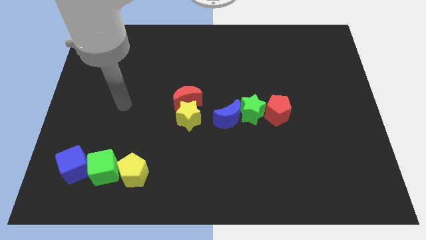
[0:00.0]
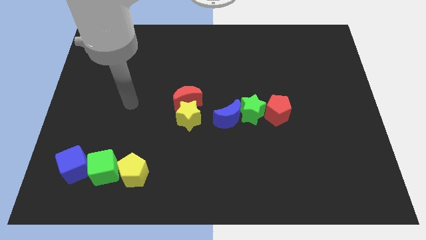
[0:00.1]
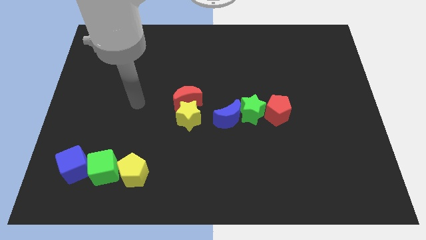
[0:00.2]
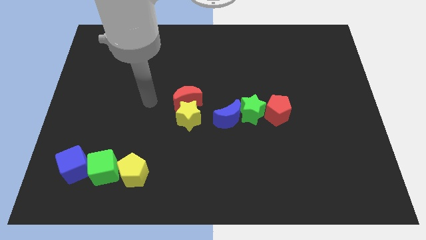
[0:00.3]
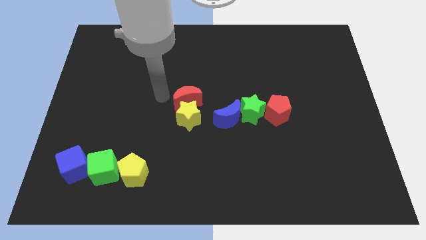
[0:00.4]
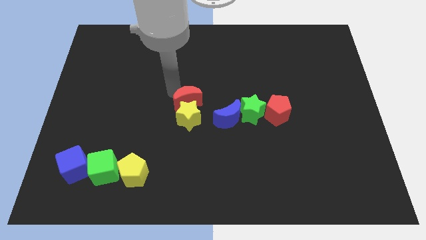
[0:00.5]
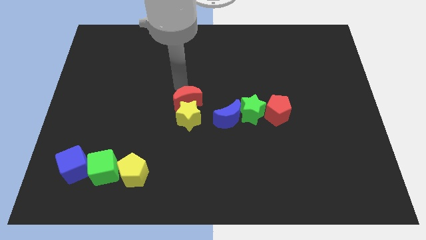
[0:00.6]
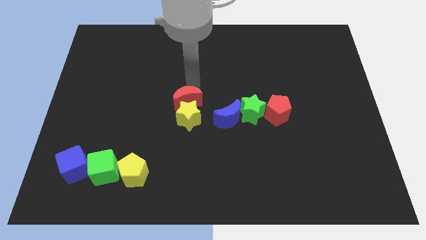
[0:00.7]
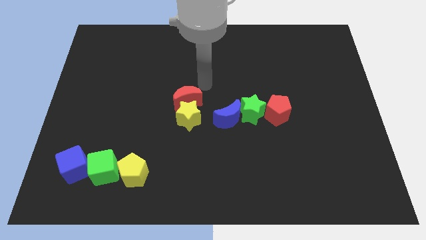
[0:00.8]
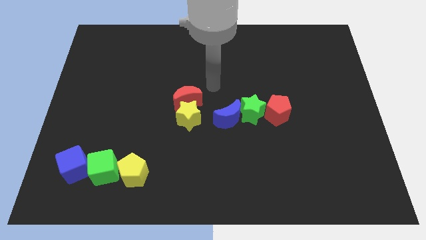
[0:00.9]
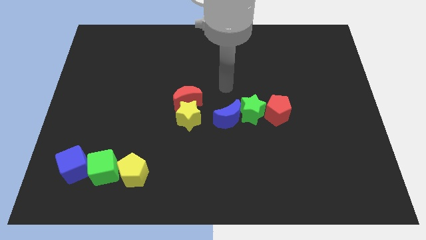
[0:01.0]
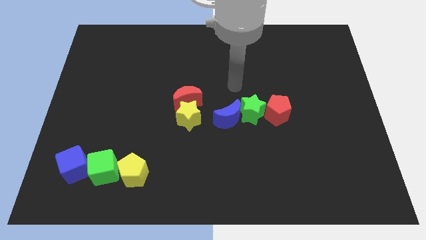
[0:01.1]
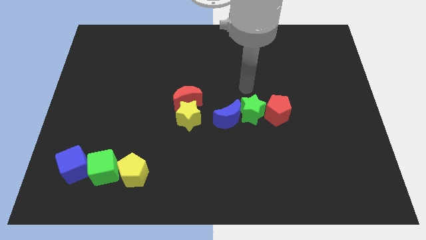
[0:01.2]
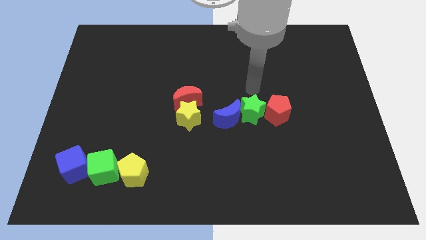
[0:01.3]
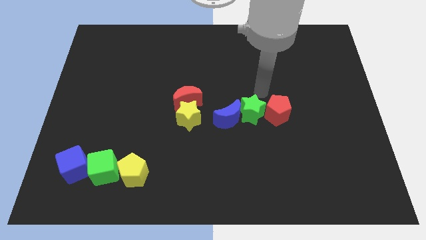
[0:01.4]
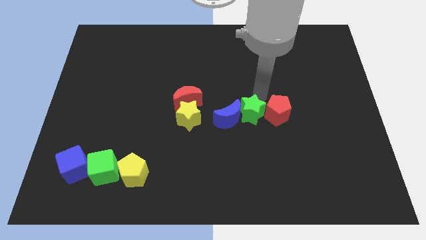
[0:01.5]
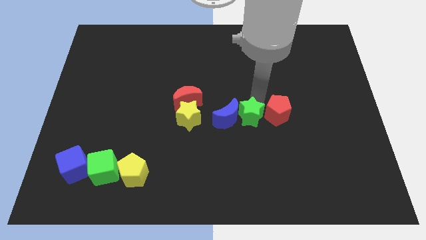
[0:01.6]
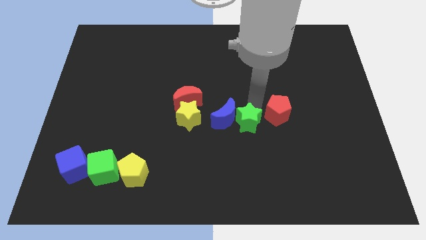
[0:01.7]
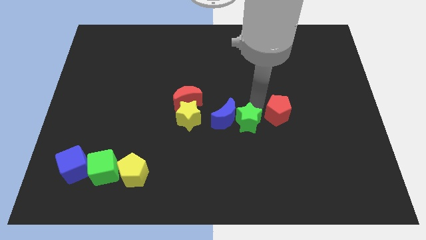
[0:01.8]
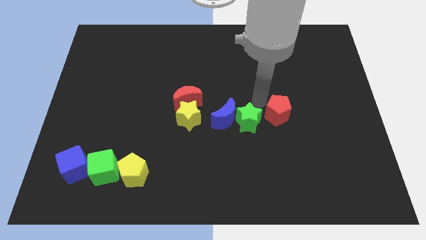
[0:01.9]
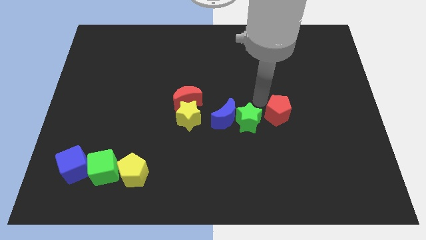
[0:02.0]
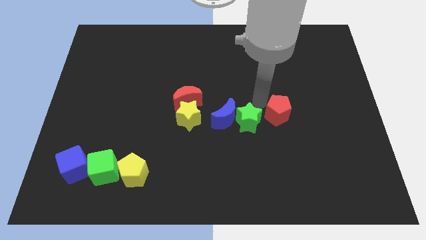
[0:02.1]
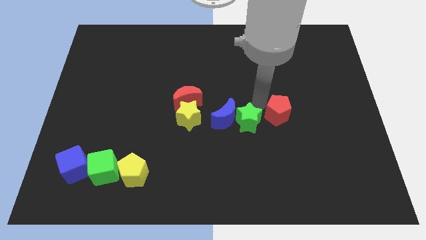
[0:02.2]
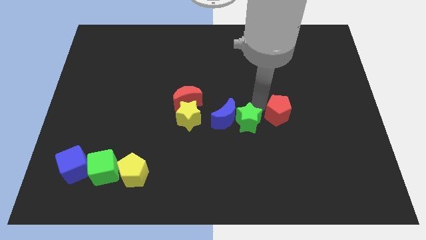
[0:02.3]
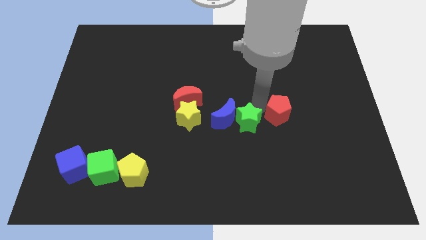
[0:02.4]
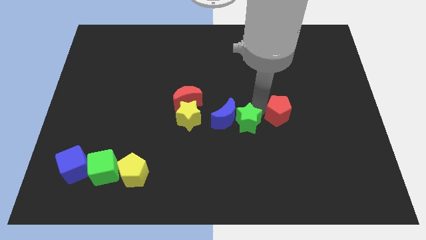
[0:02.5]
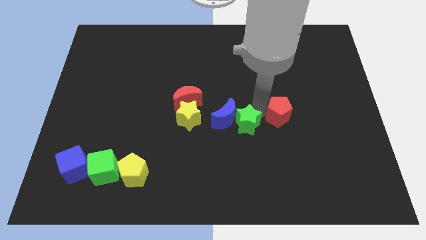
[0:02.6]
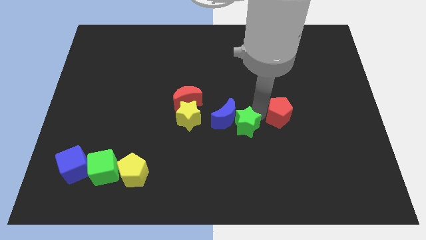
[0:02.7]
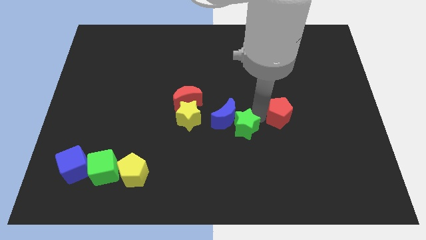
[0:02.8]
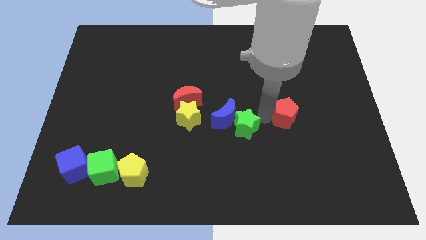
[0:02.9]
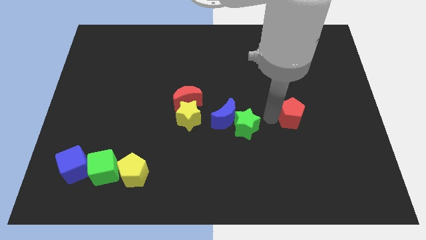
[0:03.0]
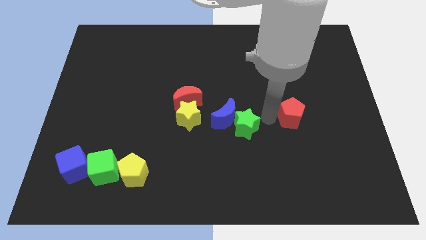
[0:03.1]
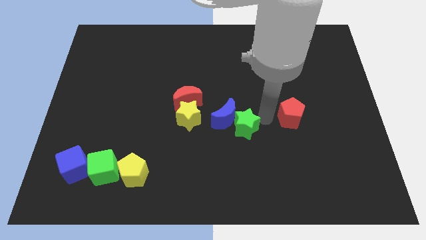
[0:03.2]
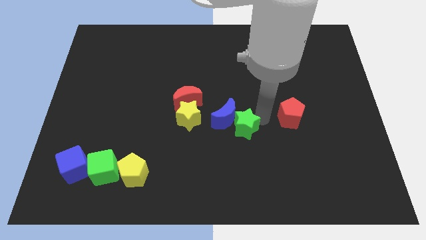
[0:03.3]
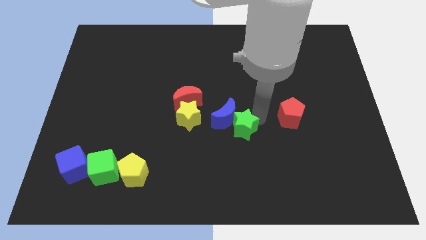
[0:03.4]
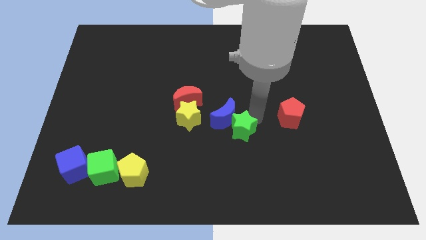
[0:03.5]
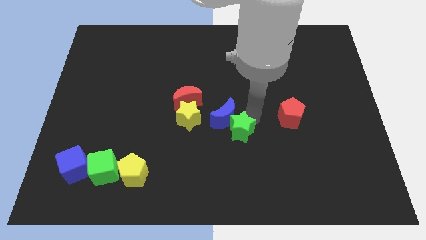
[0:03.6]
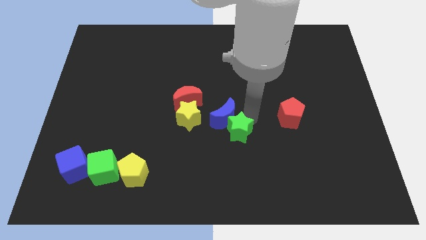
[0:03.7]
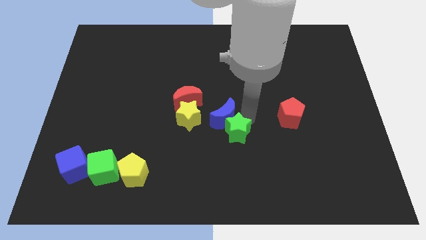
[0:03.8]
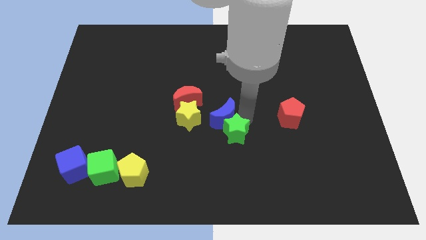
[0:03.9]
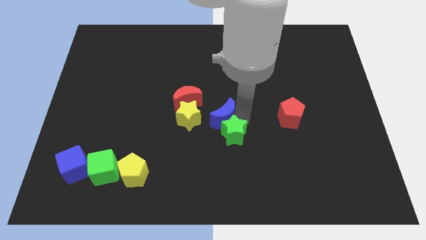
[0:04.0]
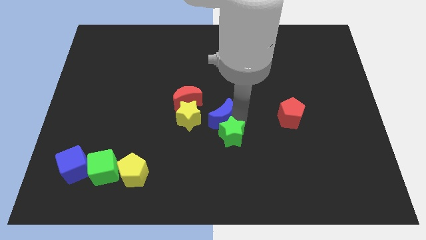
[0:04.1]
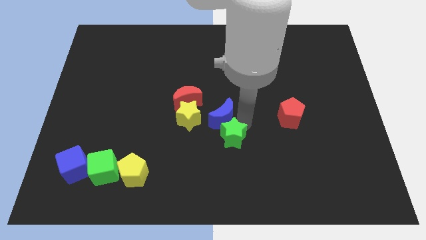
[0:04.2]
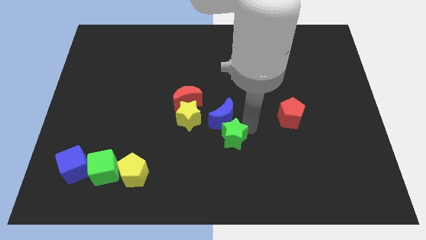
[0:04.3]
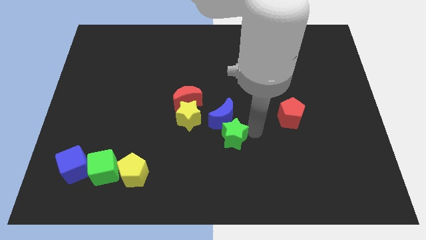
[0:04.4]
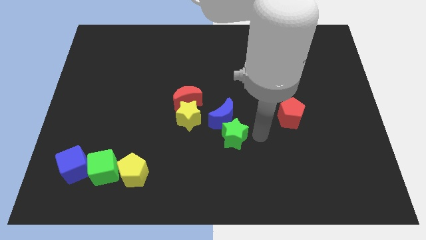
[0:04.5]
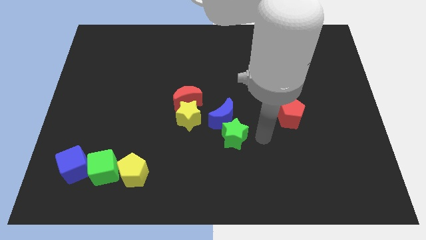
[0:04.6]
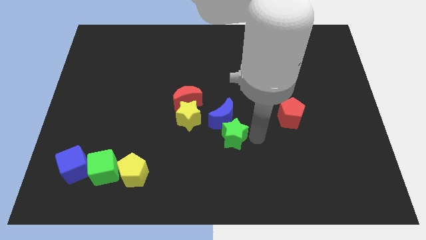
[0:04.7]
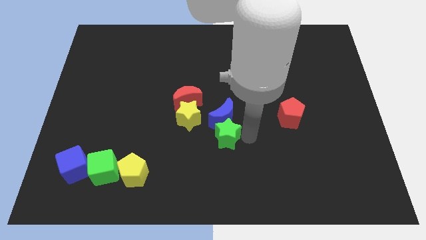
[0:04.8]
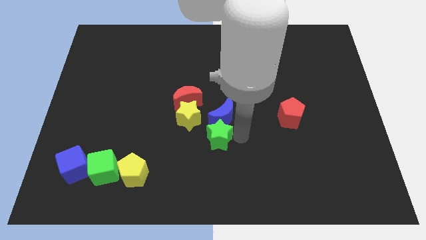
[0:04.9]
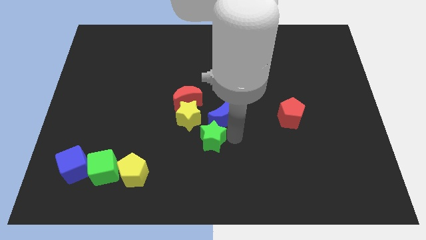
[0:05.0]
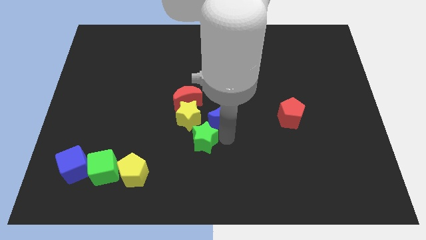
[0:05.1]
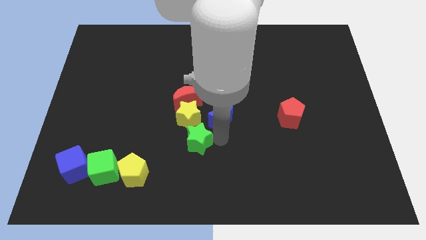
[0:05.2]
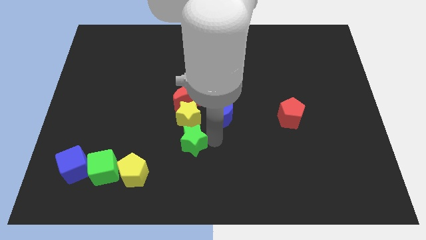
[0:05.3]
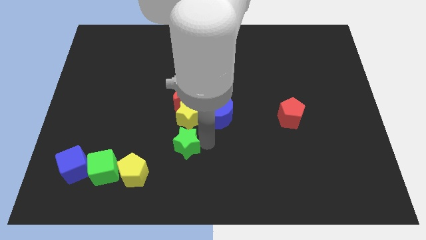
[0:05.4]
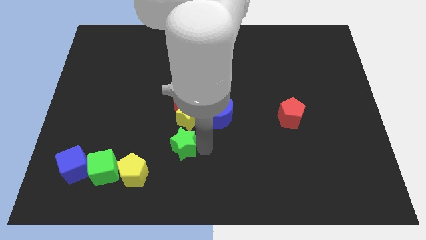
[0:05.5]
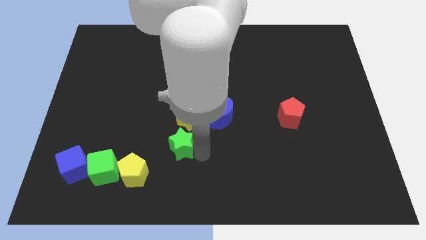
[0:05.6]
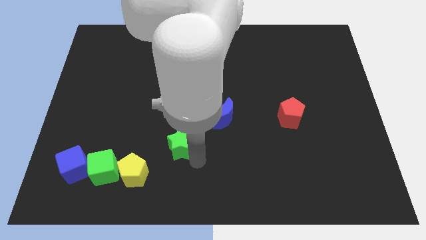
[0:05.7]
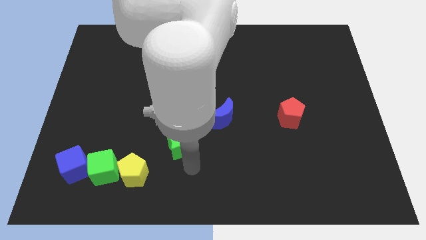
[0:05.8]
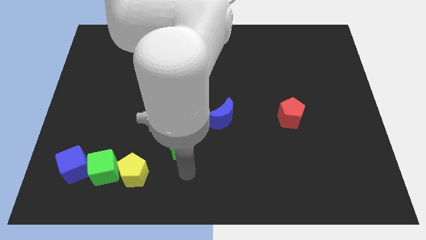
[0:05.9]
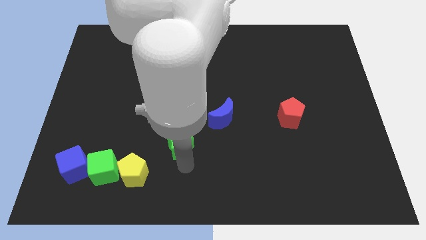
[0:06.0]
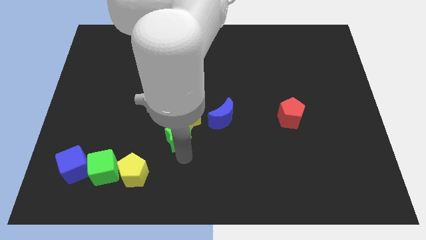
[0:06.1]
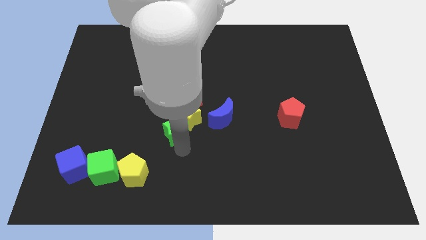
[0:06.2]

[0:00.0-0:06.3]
slide the green star to the left of the blue moon

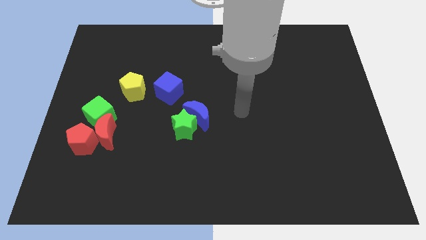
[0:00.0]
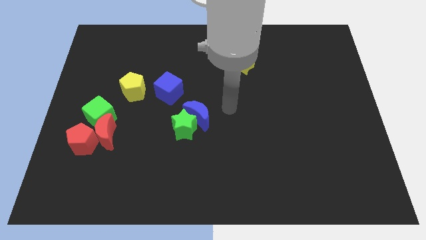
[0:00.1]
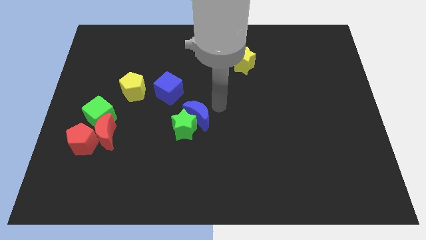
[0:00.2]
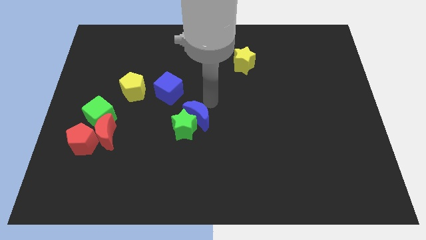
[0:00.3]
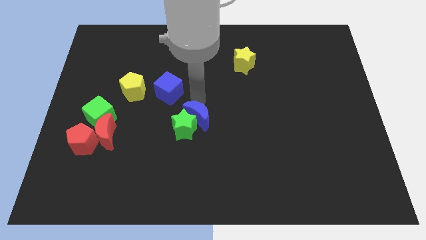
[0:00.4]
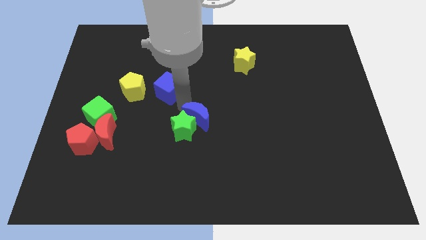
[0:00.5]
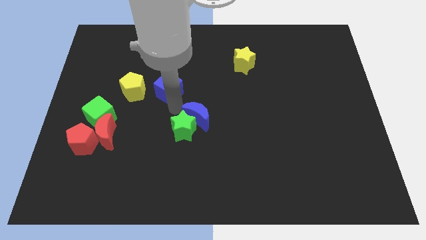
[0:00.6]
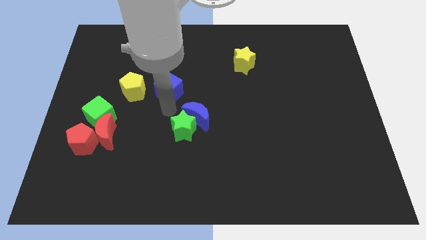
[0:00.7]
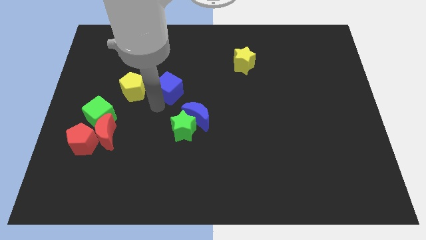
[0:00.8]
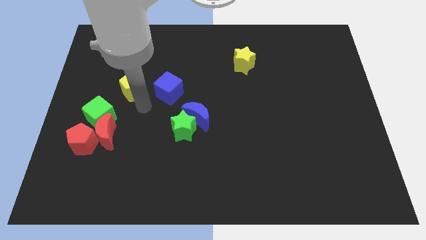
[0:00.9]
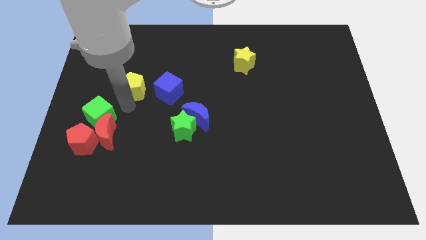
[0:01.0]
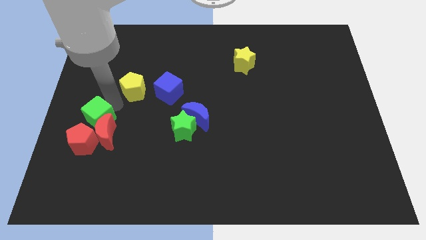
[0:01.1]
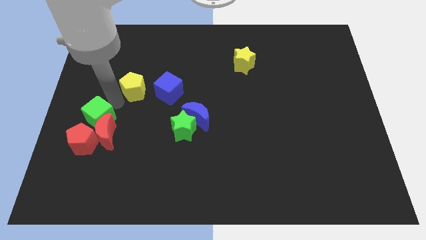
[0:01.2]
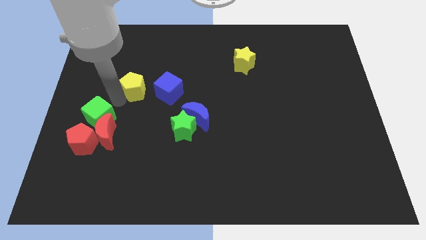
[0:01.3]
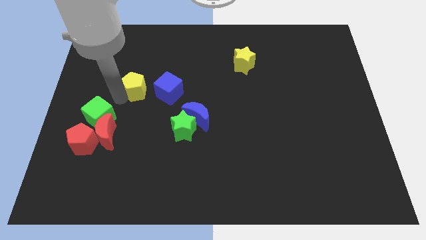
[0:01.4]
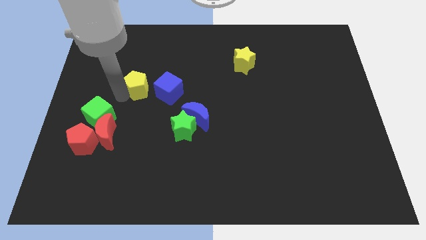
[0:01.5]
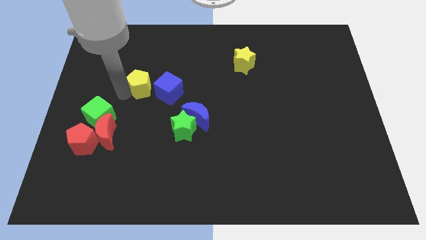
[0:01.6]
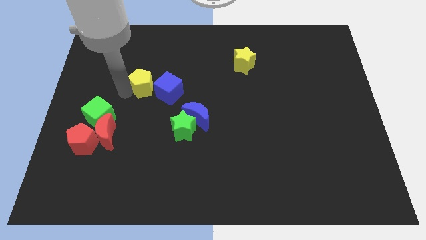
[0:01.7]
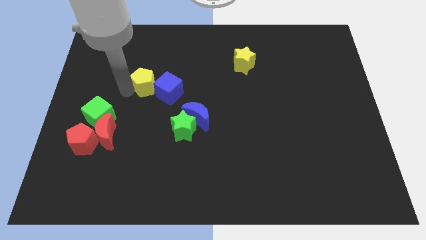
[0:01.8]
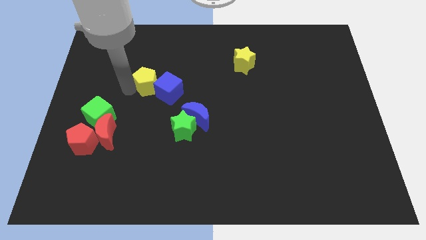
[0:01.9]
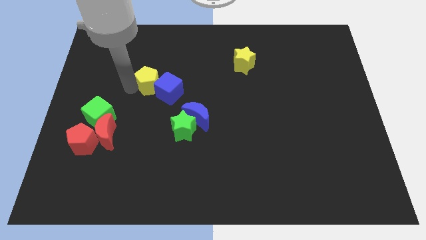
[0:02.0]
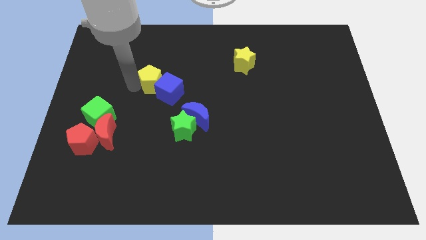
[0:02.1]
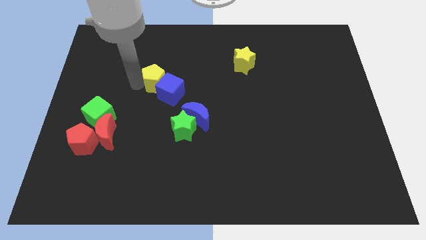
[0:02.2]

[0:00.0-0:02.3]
put the yellow pentagon to the top side of the blue cube
